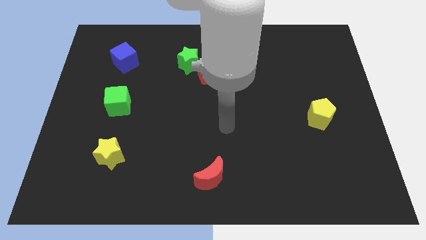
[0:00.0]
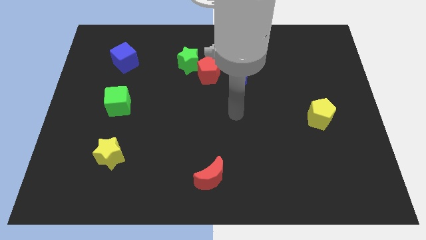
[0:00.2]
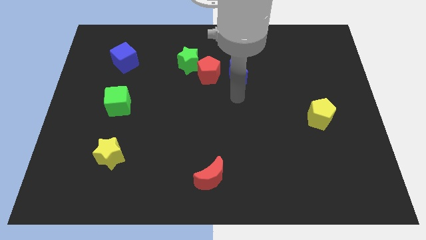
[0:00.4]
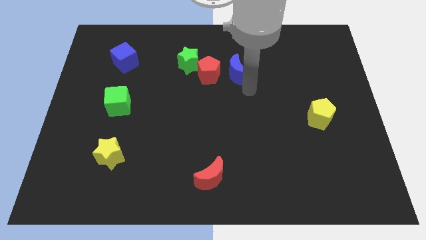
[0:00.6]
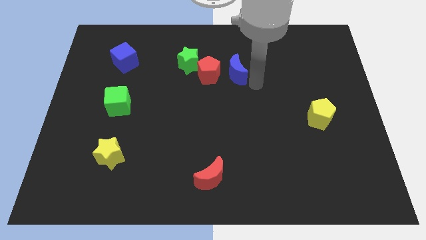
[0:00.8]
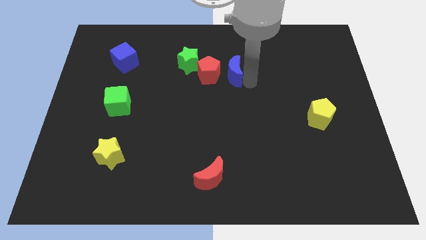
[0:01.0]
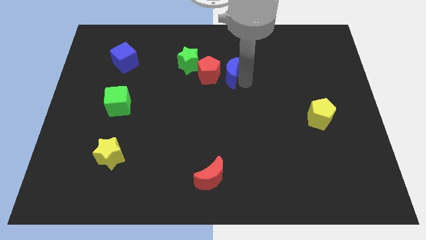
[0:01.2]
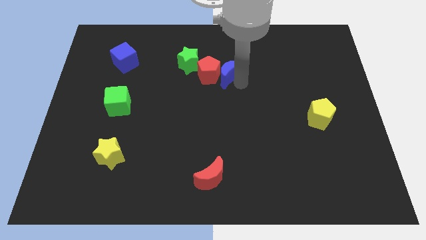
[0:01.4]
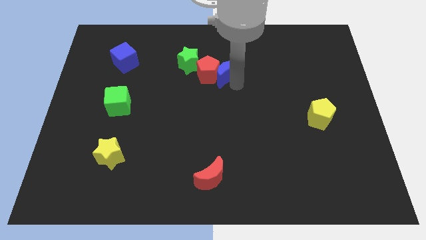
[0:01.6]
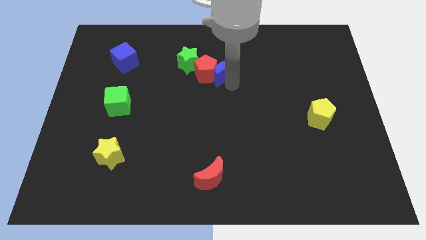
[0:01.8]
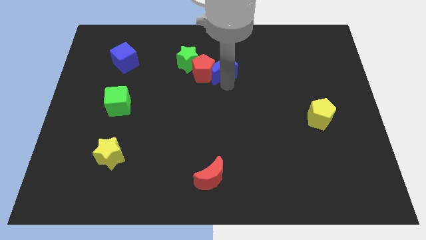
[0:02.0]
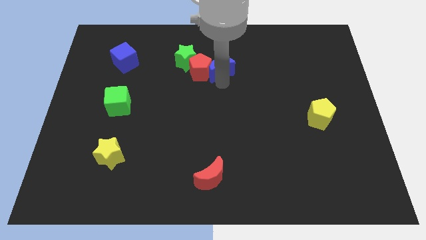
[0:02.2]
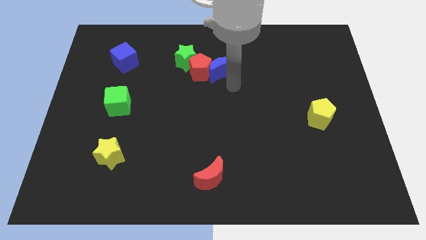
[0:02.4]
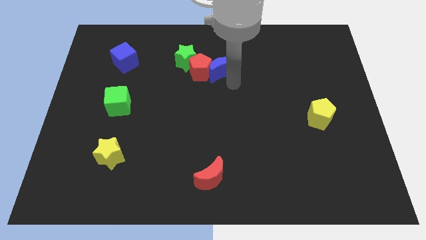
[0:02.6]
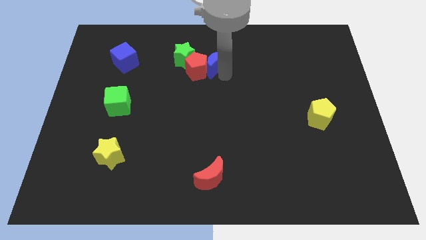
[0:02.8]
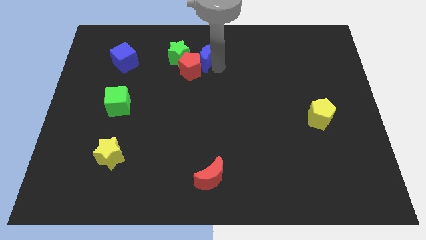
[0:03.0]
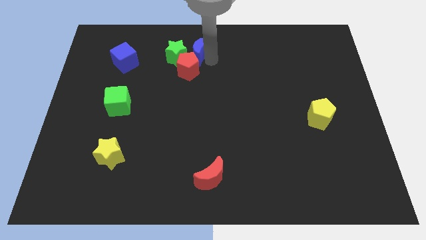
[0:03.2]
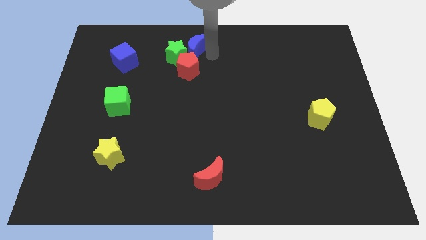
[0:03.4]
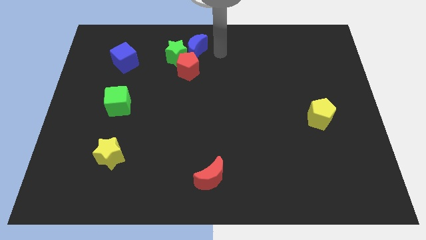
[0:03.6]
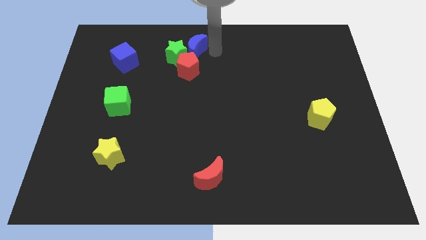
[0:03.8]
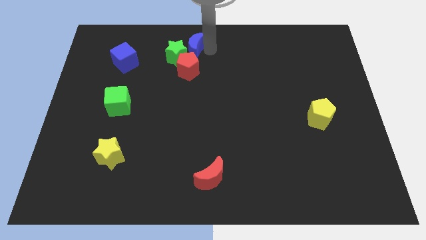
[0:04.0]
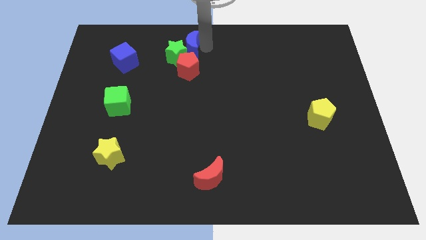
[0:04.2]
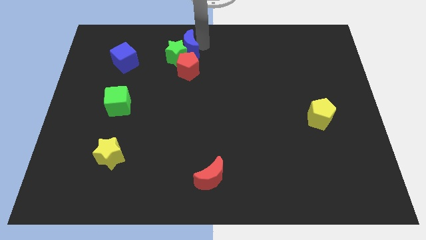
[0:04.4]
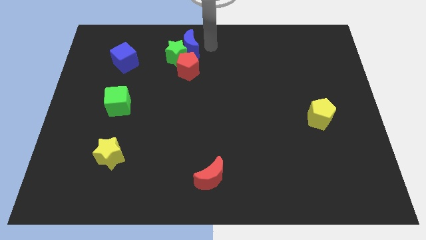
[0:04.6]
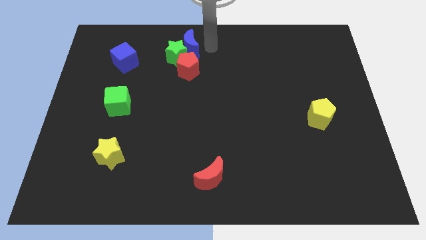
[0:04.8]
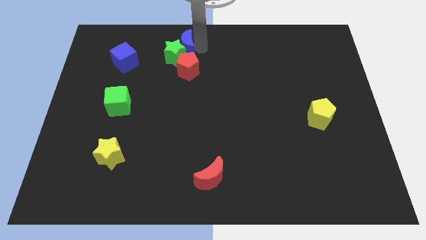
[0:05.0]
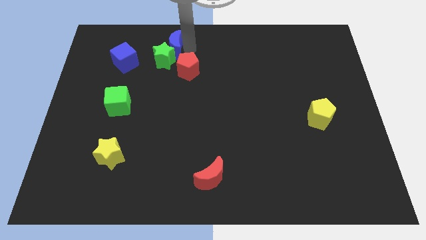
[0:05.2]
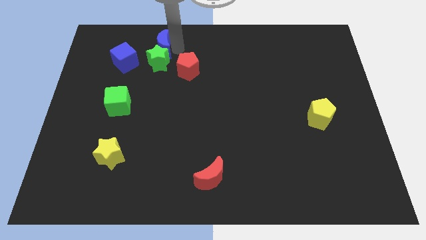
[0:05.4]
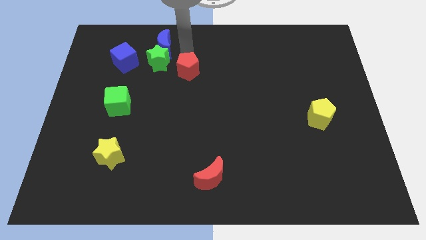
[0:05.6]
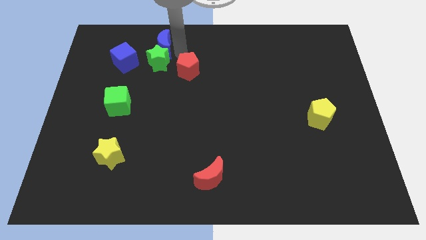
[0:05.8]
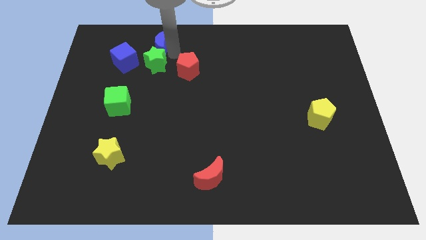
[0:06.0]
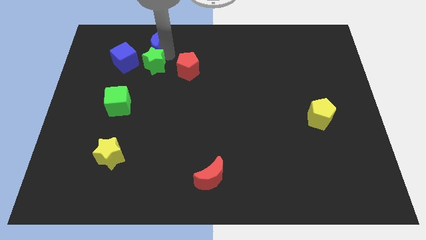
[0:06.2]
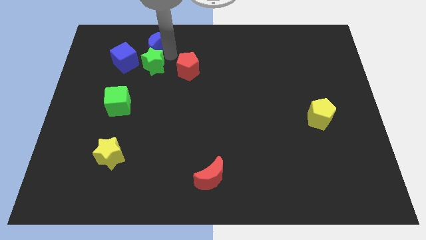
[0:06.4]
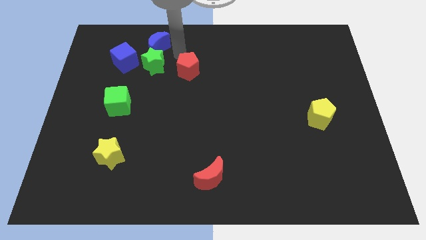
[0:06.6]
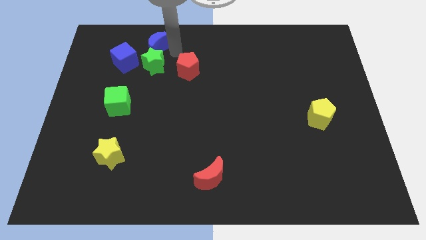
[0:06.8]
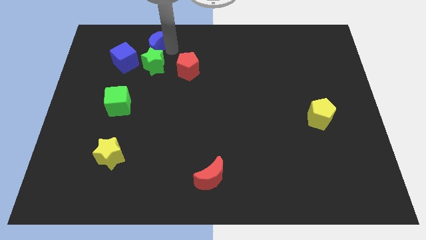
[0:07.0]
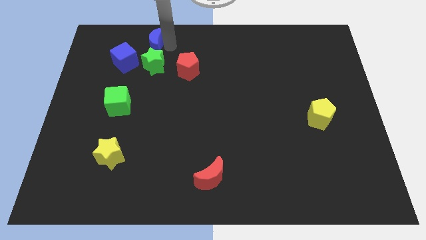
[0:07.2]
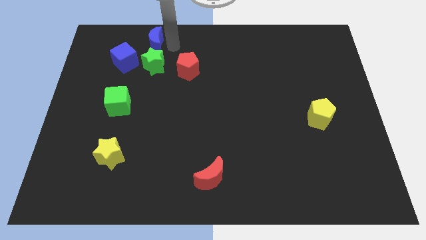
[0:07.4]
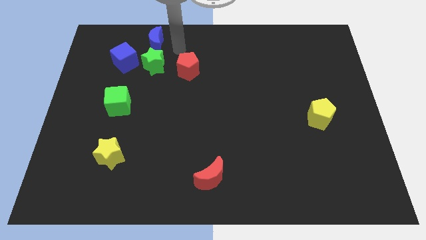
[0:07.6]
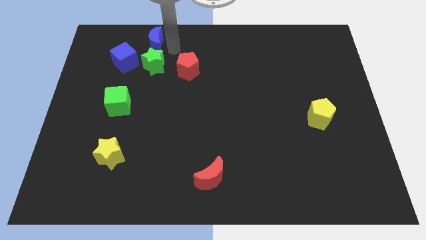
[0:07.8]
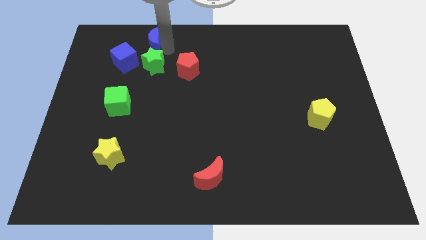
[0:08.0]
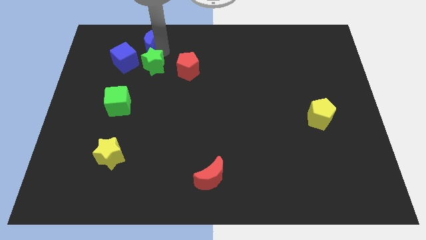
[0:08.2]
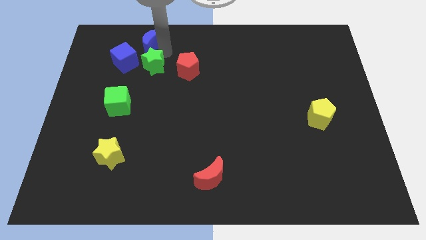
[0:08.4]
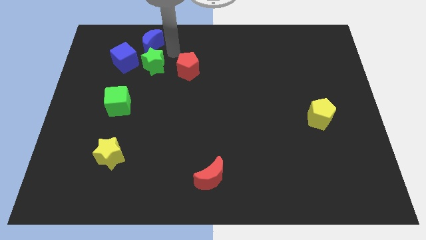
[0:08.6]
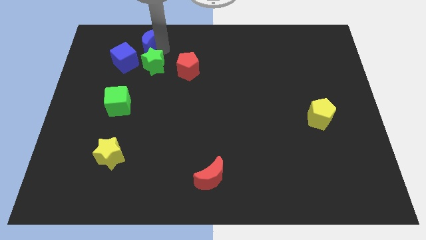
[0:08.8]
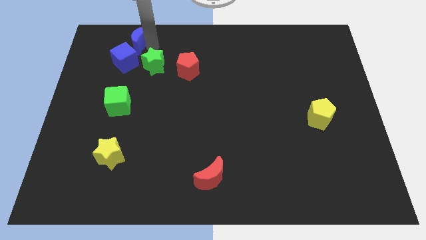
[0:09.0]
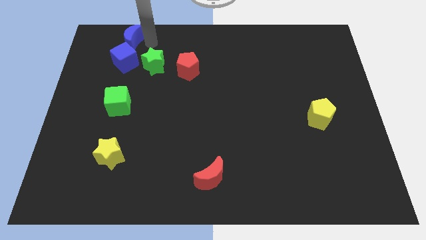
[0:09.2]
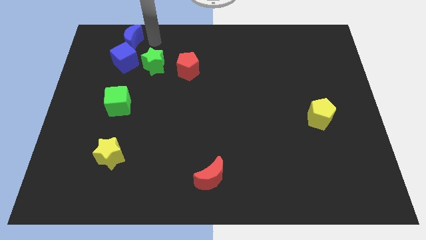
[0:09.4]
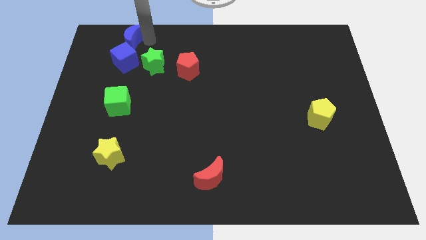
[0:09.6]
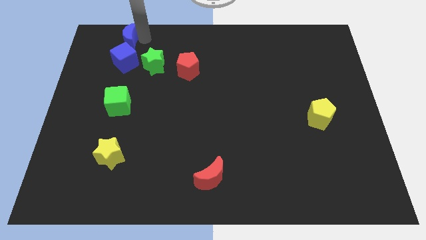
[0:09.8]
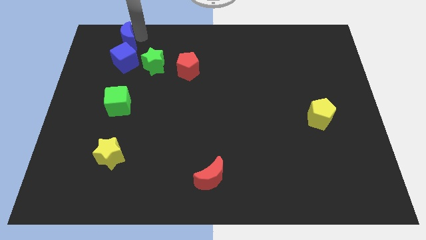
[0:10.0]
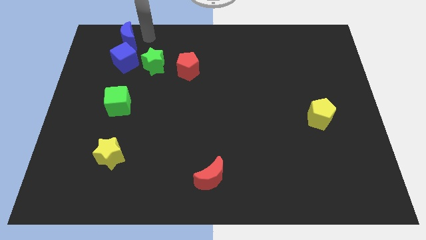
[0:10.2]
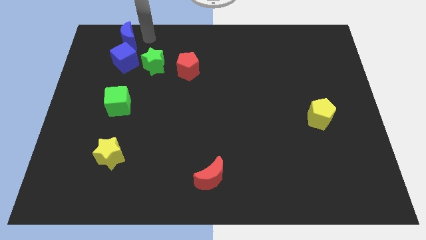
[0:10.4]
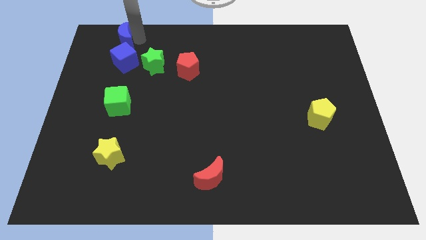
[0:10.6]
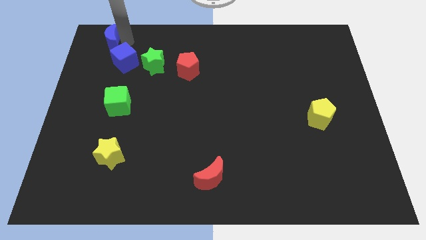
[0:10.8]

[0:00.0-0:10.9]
put the blue moon to the top left

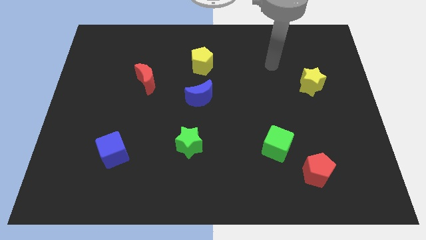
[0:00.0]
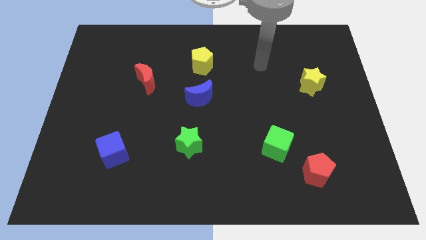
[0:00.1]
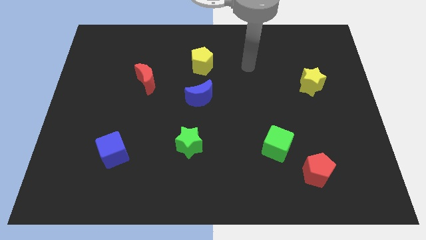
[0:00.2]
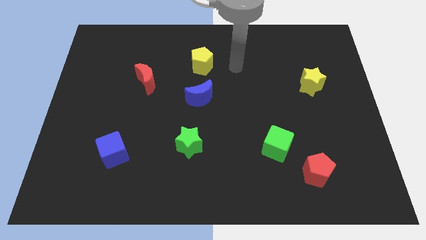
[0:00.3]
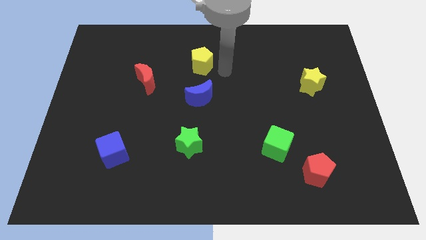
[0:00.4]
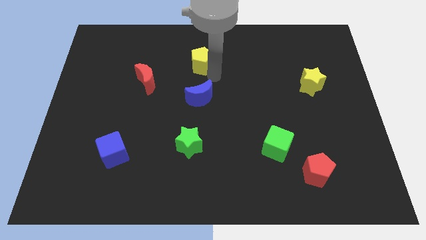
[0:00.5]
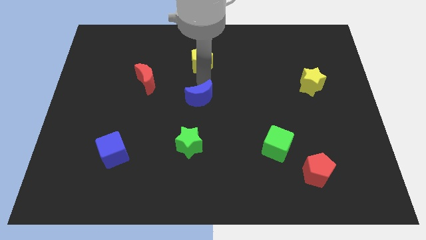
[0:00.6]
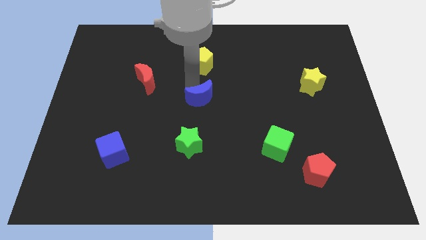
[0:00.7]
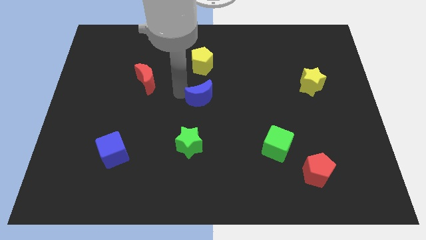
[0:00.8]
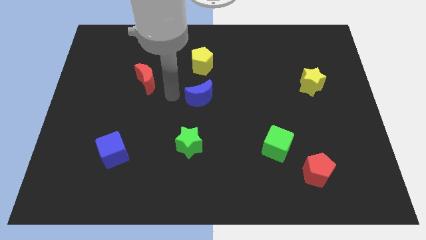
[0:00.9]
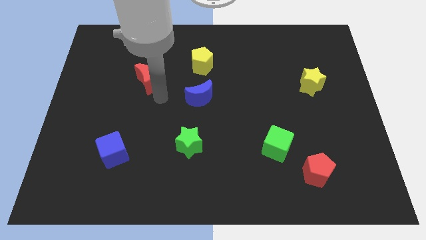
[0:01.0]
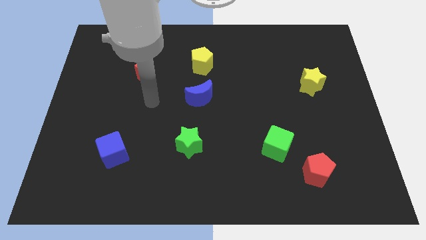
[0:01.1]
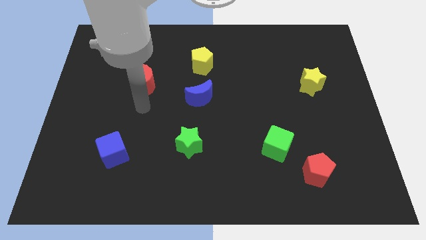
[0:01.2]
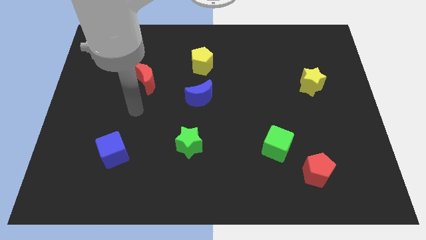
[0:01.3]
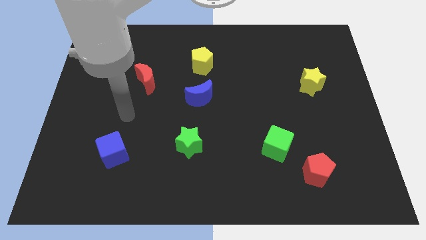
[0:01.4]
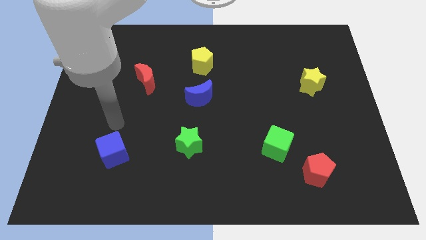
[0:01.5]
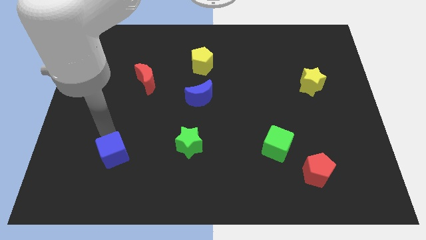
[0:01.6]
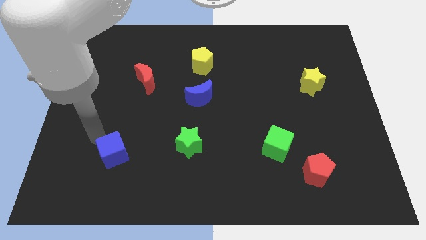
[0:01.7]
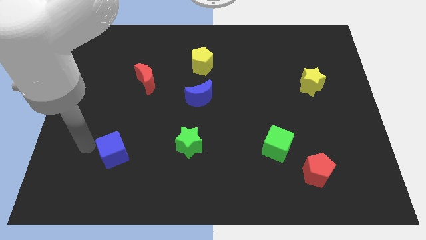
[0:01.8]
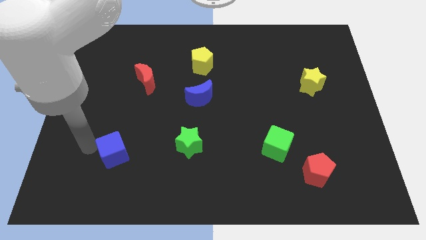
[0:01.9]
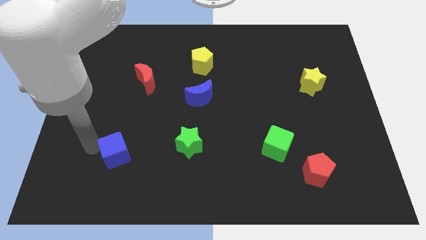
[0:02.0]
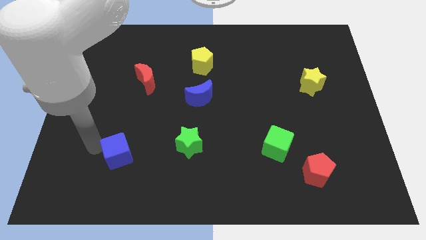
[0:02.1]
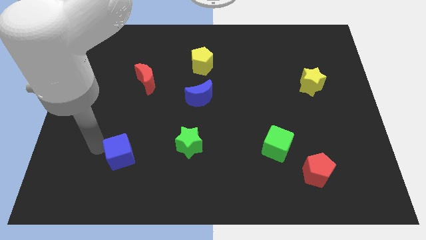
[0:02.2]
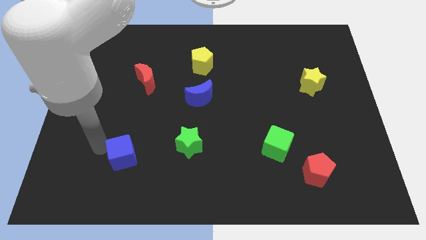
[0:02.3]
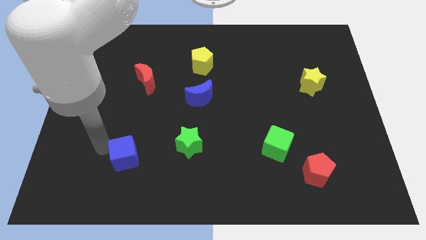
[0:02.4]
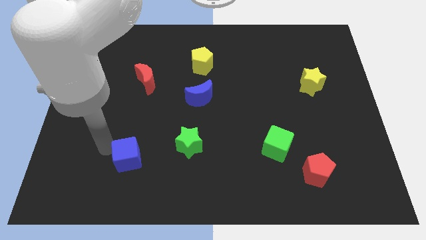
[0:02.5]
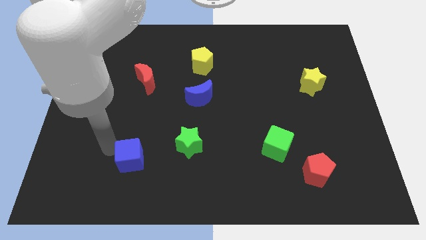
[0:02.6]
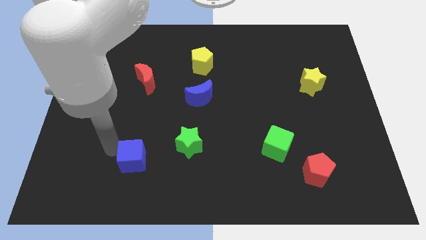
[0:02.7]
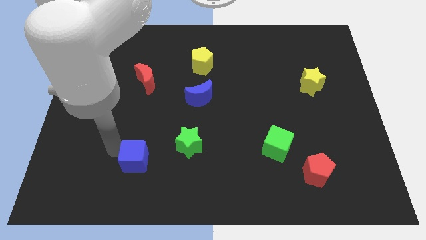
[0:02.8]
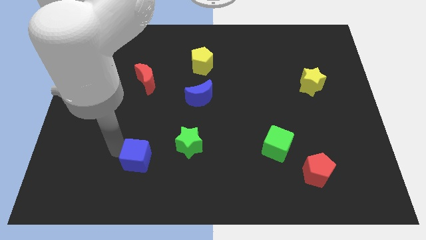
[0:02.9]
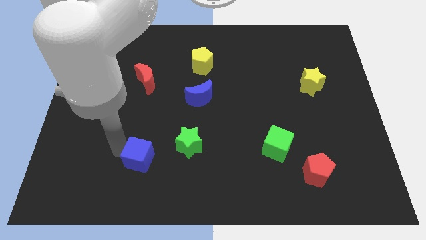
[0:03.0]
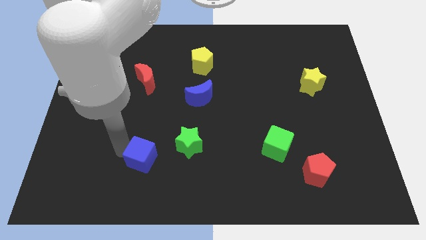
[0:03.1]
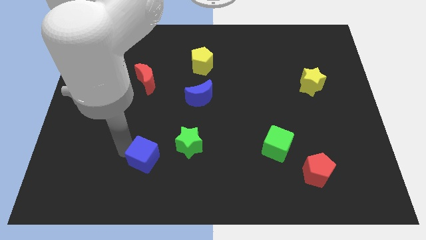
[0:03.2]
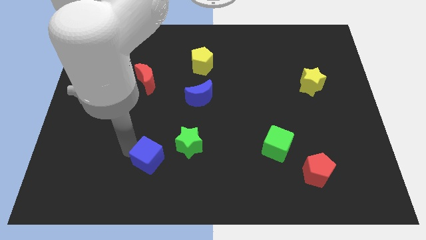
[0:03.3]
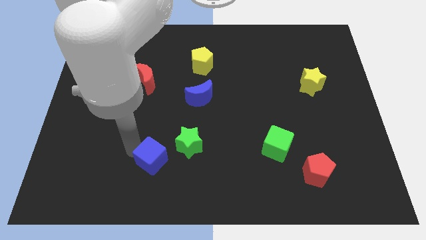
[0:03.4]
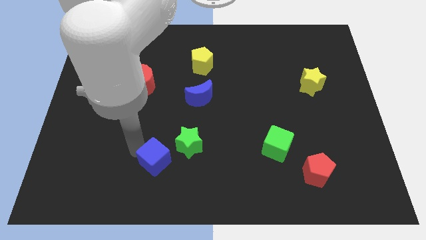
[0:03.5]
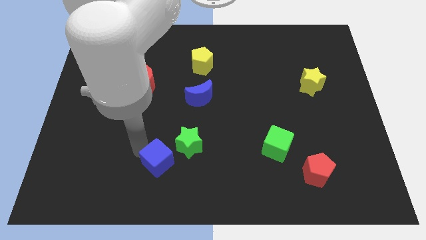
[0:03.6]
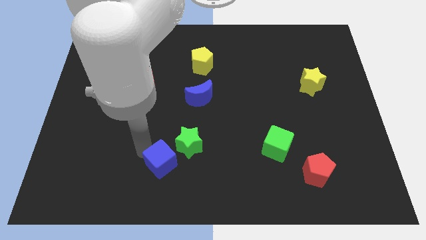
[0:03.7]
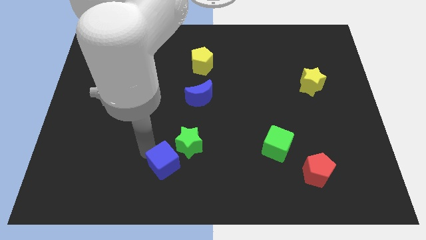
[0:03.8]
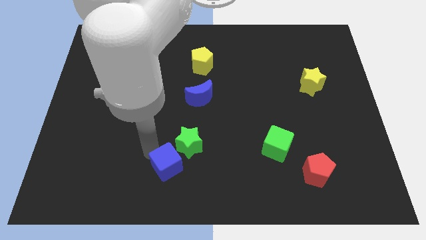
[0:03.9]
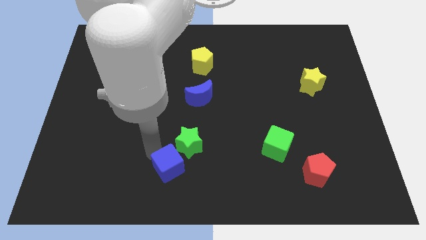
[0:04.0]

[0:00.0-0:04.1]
slide the blue cube to the bottom
